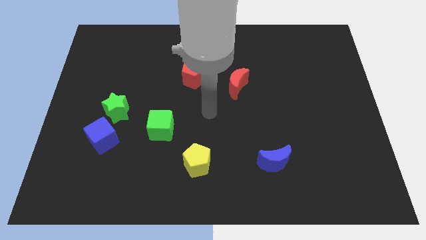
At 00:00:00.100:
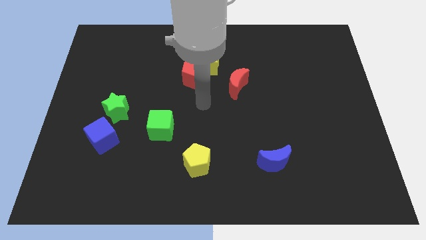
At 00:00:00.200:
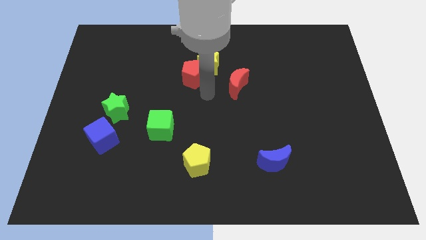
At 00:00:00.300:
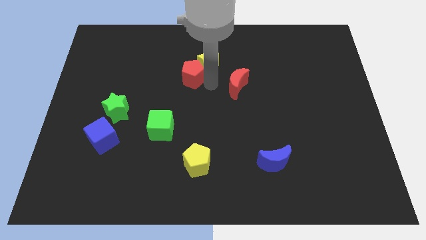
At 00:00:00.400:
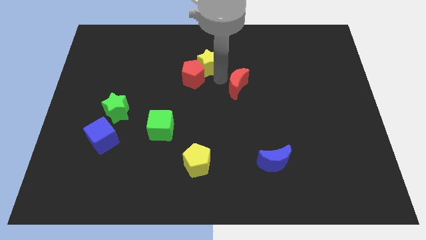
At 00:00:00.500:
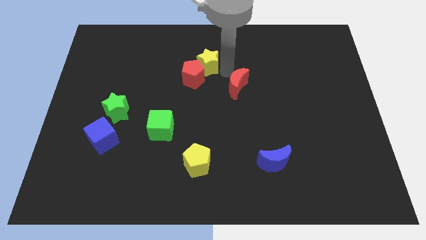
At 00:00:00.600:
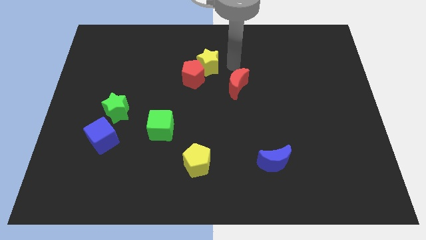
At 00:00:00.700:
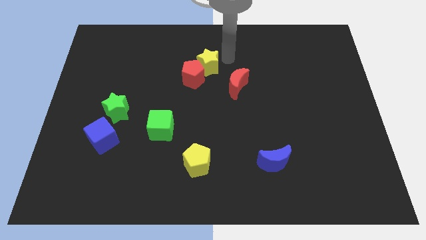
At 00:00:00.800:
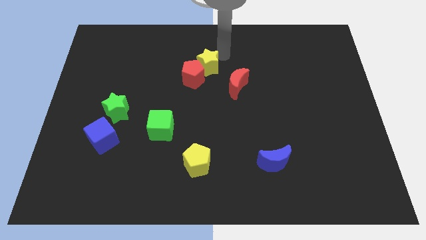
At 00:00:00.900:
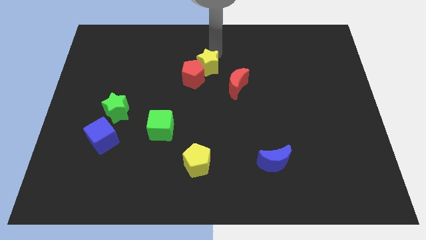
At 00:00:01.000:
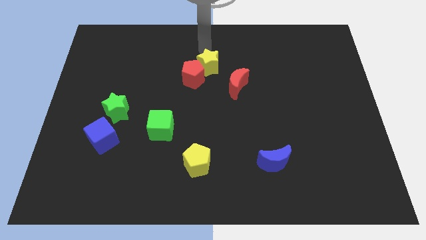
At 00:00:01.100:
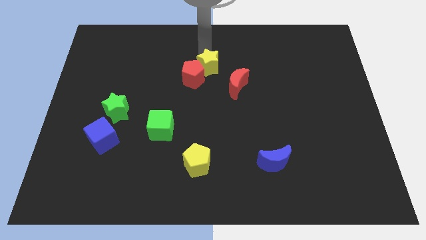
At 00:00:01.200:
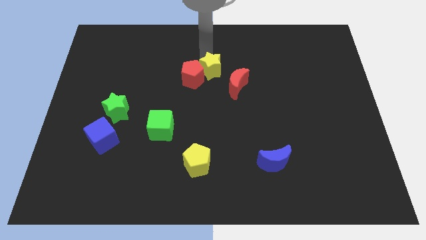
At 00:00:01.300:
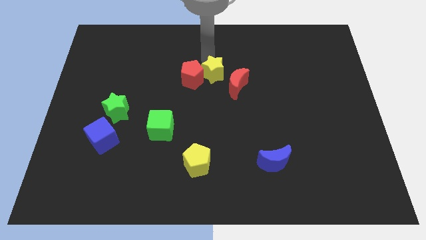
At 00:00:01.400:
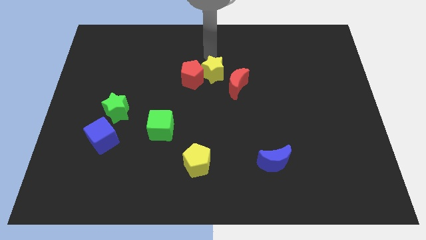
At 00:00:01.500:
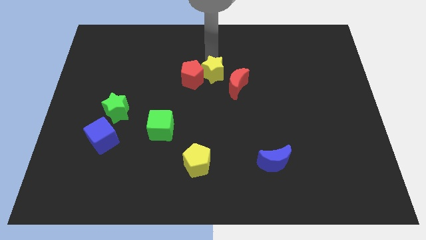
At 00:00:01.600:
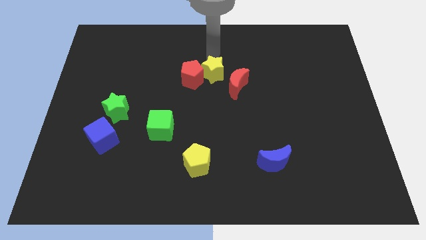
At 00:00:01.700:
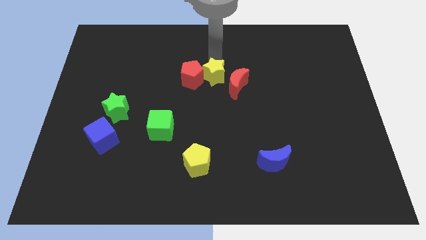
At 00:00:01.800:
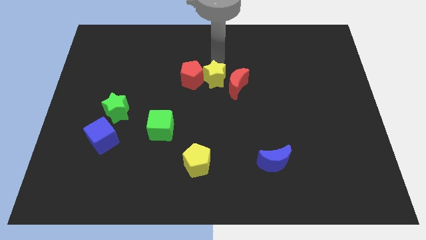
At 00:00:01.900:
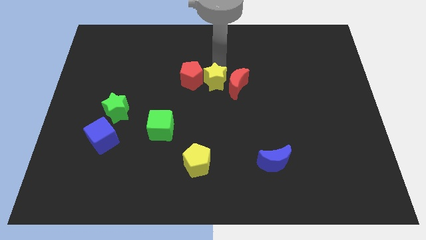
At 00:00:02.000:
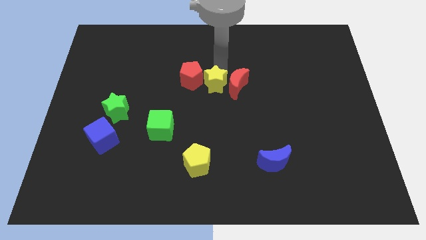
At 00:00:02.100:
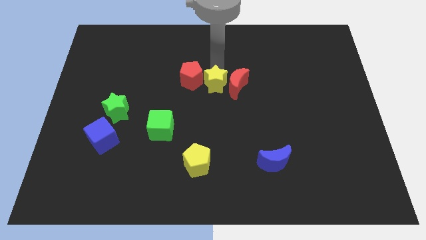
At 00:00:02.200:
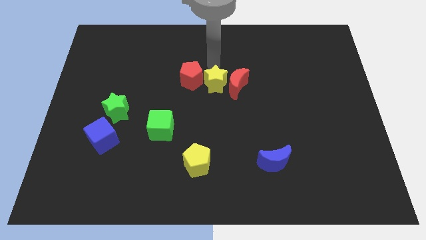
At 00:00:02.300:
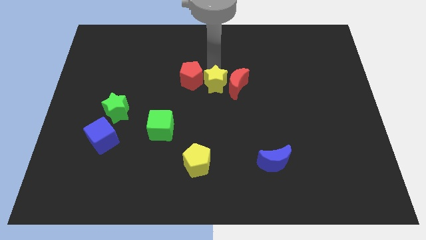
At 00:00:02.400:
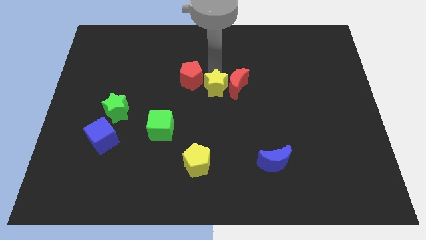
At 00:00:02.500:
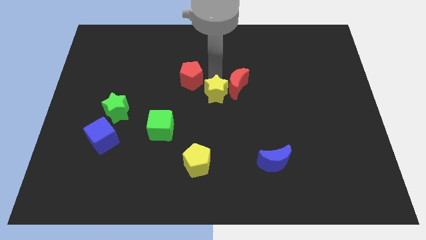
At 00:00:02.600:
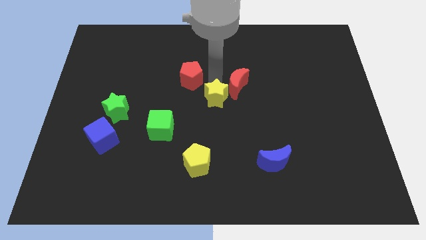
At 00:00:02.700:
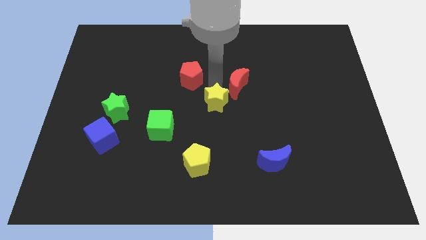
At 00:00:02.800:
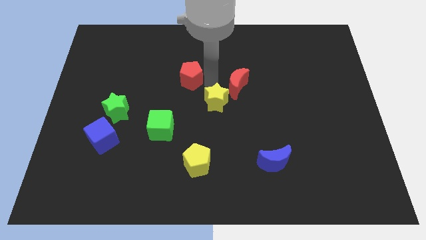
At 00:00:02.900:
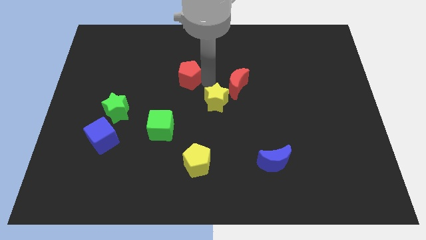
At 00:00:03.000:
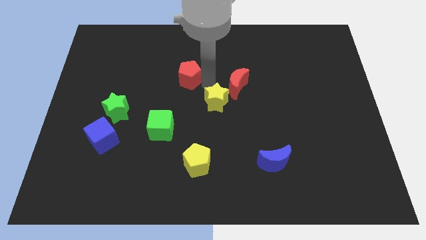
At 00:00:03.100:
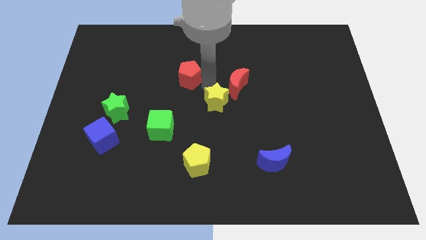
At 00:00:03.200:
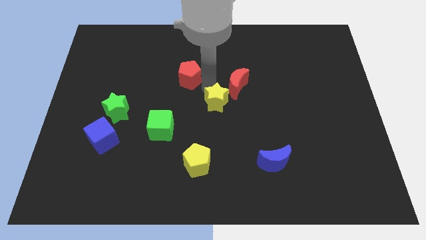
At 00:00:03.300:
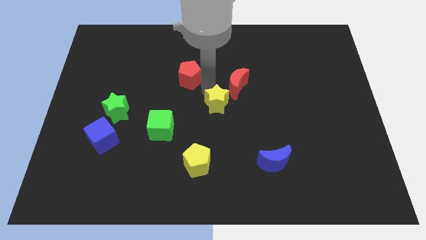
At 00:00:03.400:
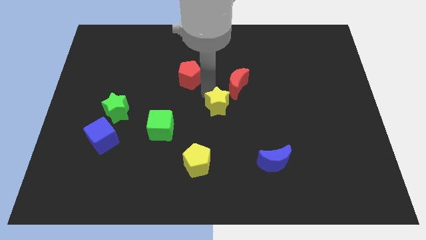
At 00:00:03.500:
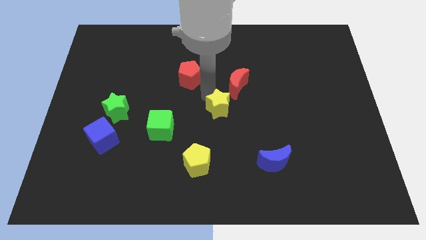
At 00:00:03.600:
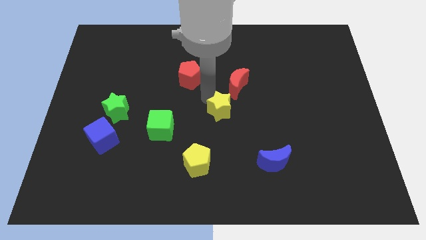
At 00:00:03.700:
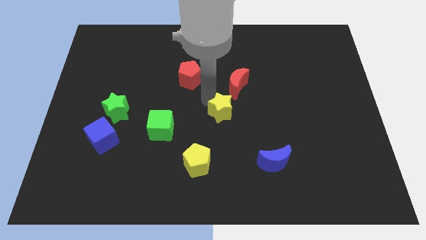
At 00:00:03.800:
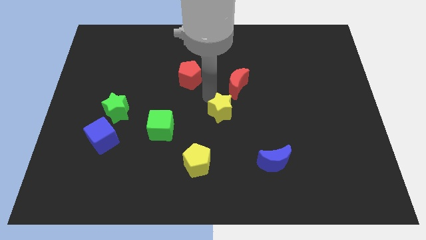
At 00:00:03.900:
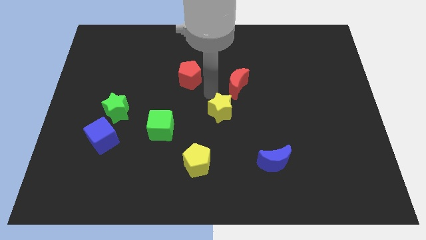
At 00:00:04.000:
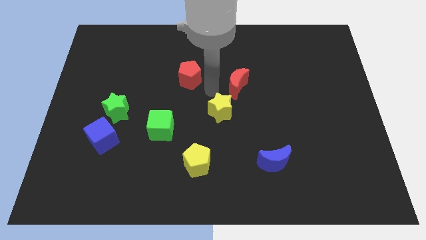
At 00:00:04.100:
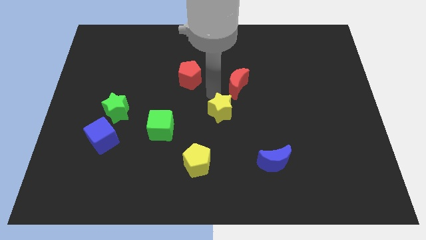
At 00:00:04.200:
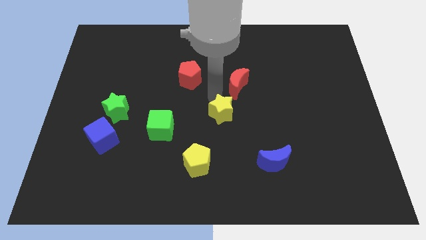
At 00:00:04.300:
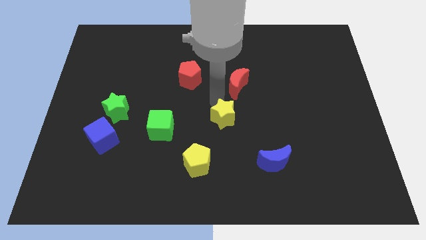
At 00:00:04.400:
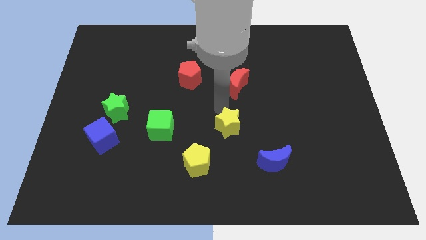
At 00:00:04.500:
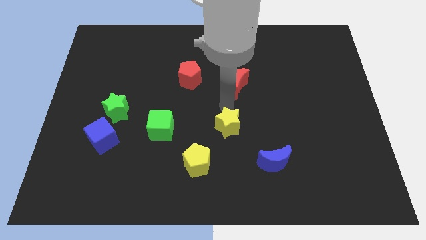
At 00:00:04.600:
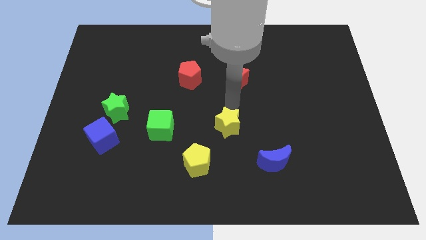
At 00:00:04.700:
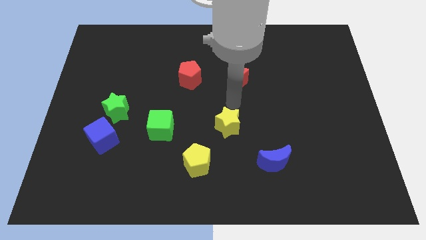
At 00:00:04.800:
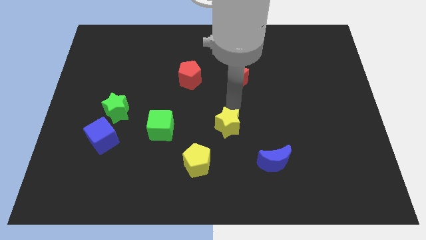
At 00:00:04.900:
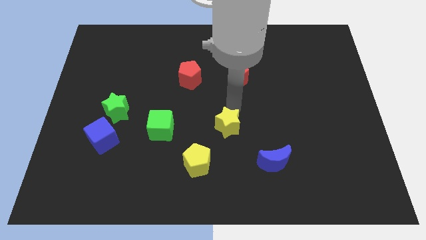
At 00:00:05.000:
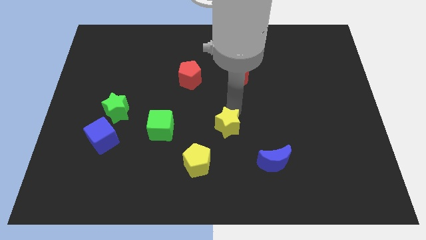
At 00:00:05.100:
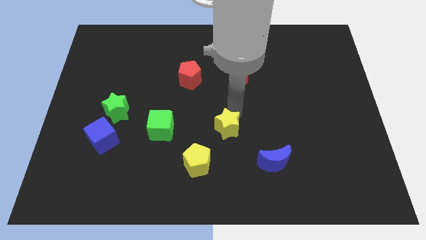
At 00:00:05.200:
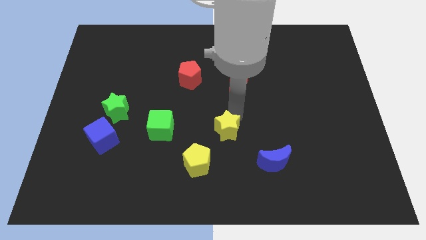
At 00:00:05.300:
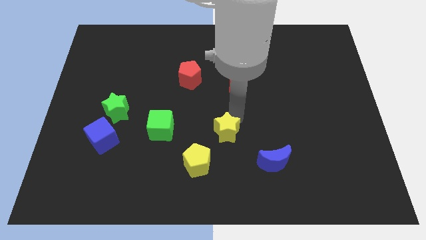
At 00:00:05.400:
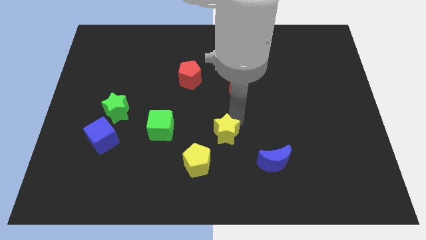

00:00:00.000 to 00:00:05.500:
push the yellow star down

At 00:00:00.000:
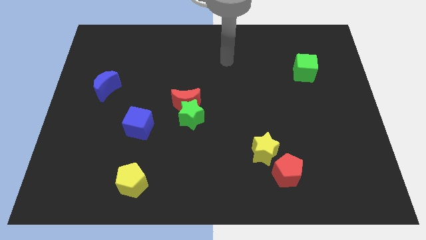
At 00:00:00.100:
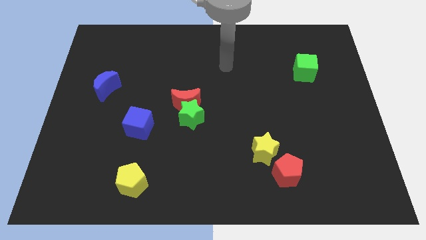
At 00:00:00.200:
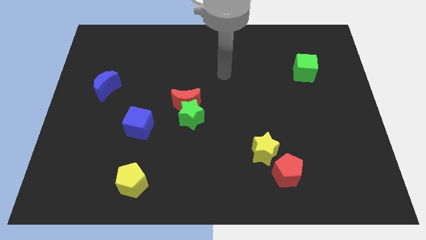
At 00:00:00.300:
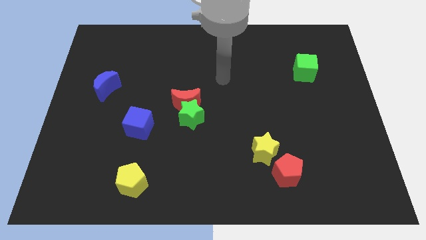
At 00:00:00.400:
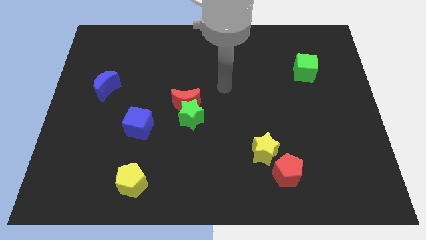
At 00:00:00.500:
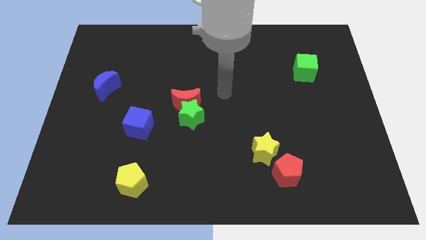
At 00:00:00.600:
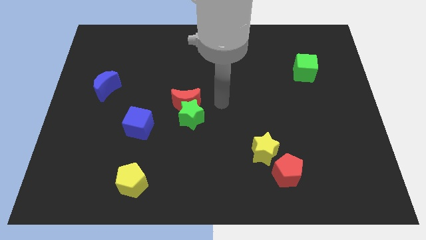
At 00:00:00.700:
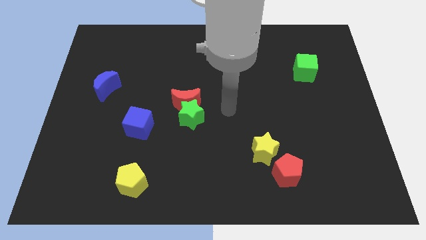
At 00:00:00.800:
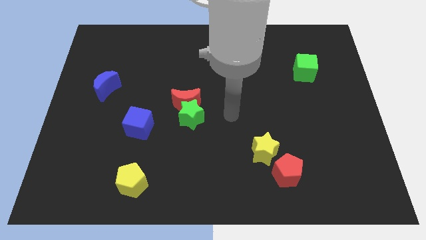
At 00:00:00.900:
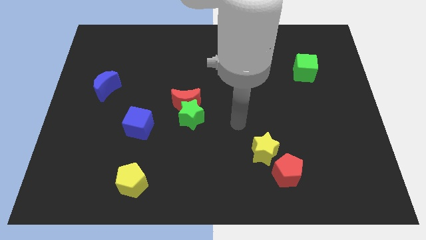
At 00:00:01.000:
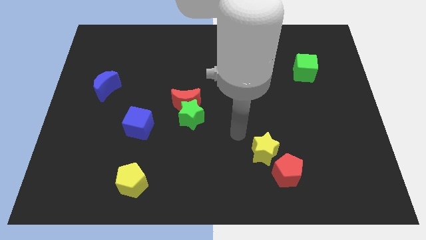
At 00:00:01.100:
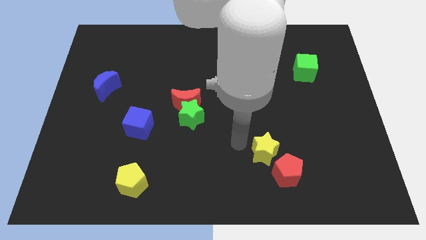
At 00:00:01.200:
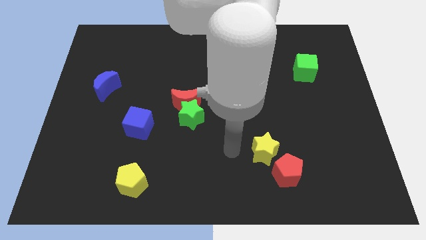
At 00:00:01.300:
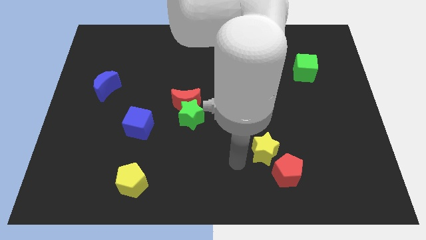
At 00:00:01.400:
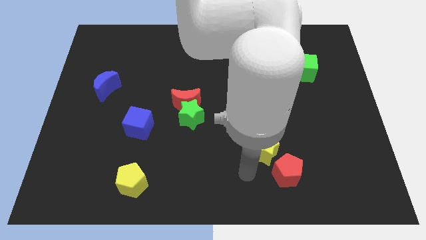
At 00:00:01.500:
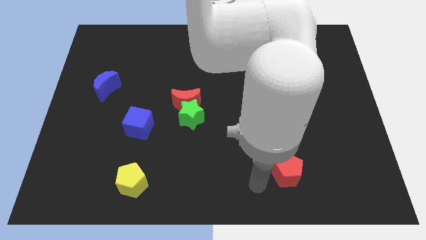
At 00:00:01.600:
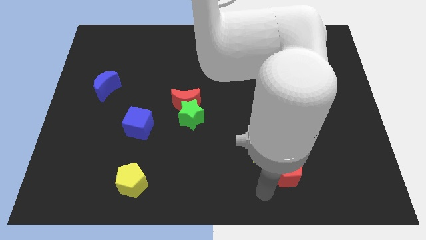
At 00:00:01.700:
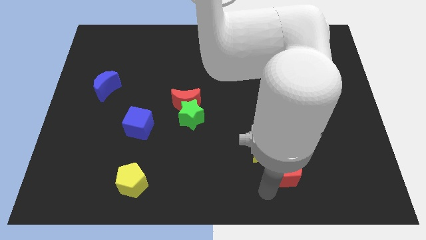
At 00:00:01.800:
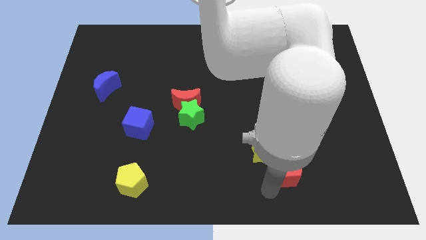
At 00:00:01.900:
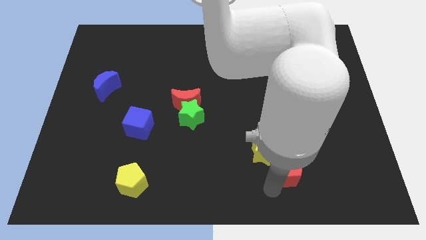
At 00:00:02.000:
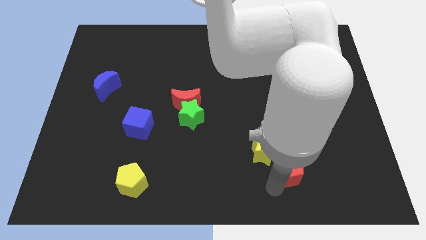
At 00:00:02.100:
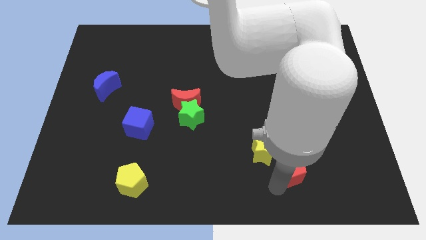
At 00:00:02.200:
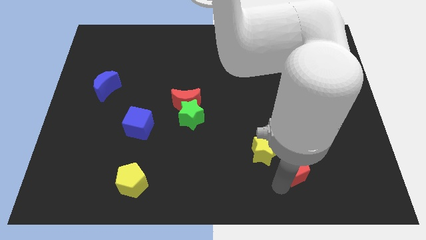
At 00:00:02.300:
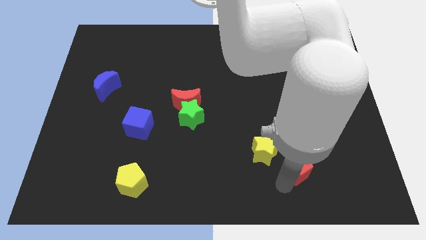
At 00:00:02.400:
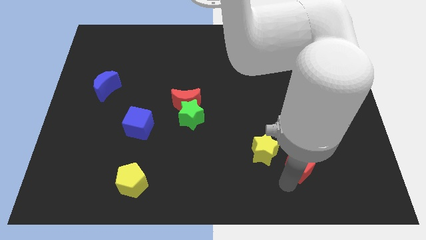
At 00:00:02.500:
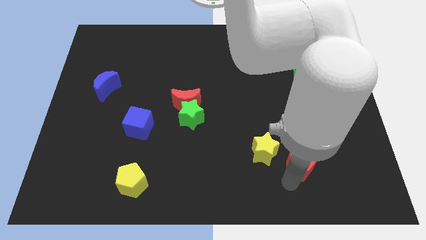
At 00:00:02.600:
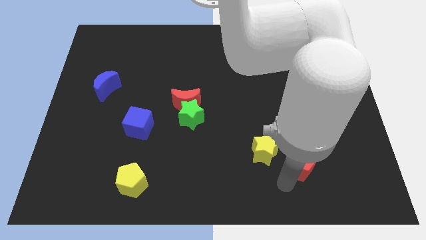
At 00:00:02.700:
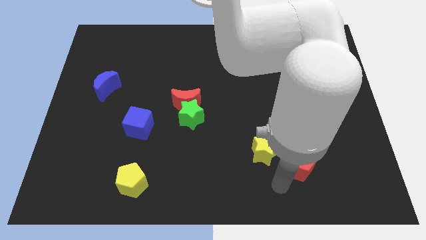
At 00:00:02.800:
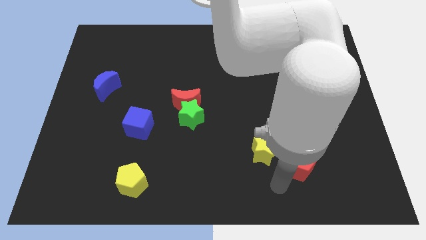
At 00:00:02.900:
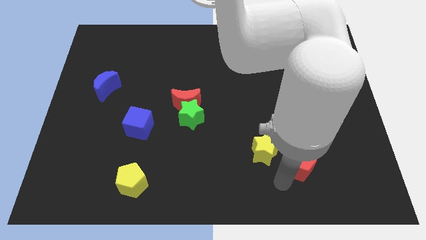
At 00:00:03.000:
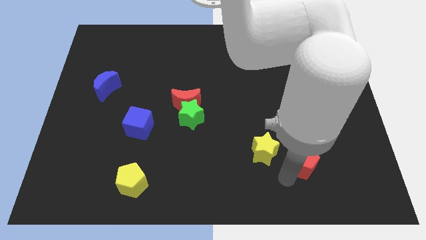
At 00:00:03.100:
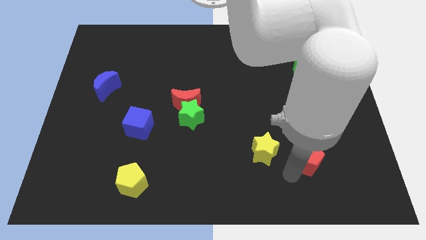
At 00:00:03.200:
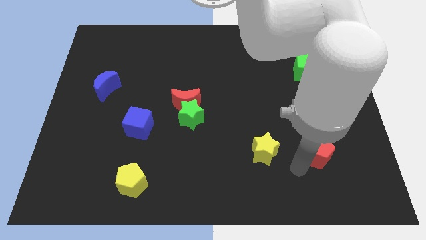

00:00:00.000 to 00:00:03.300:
slide the red pentagon up and then to the right slightly
